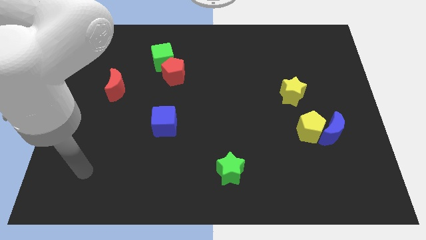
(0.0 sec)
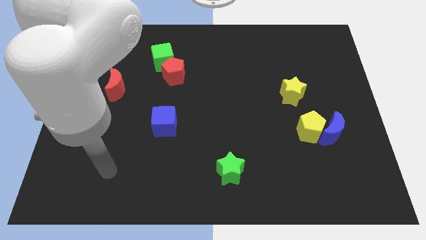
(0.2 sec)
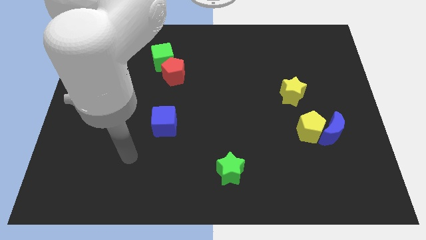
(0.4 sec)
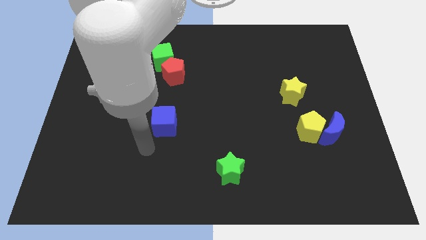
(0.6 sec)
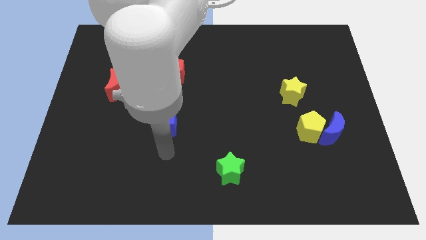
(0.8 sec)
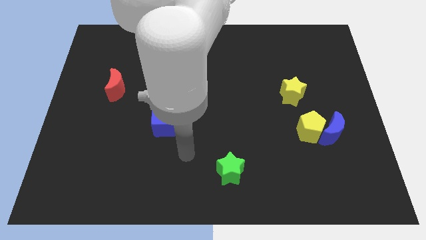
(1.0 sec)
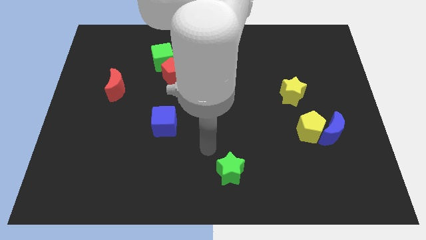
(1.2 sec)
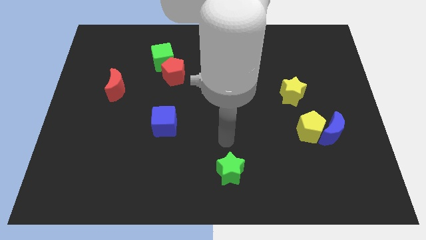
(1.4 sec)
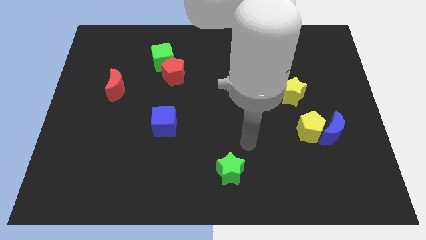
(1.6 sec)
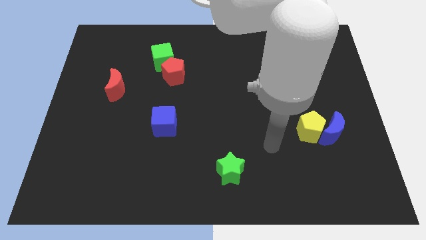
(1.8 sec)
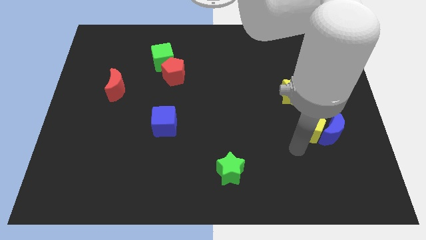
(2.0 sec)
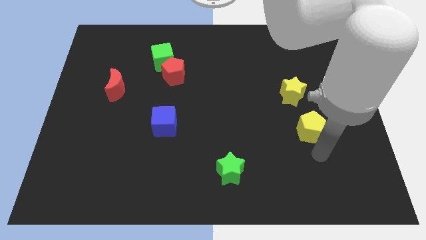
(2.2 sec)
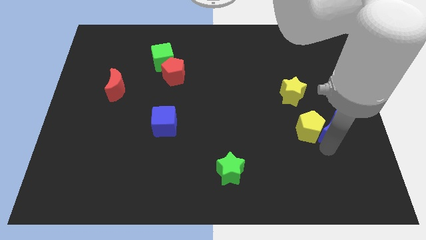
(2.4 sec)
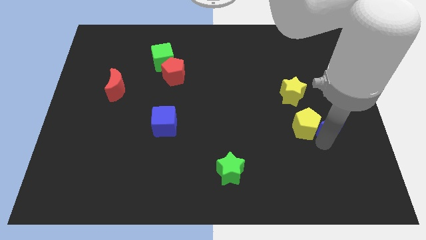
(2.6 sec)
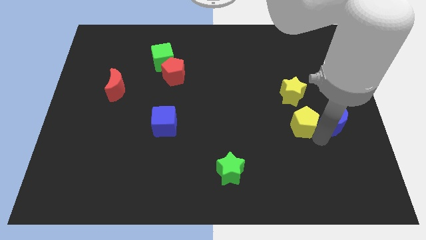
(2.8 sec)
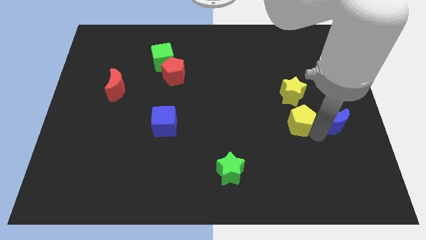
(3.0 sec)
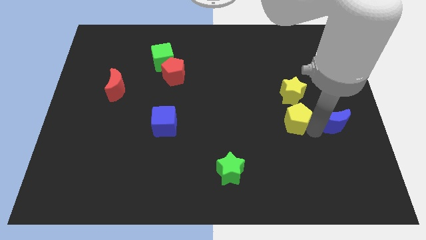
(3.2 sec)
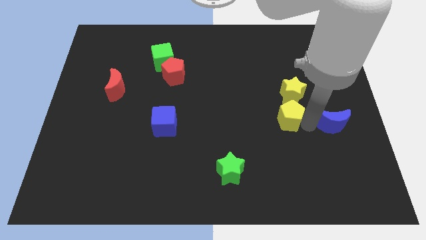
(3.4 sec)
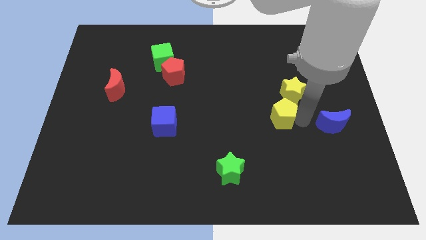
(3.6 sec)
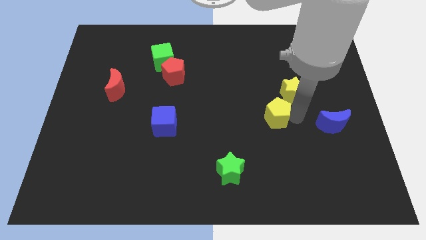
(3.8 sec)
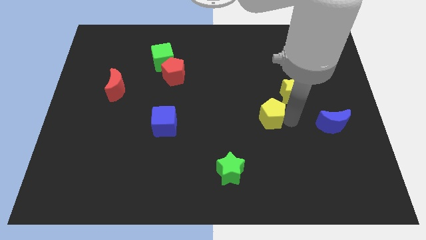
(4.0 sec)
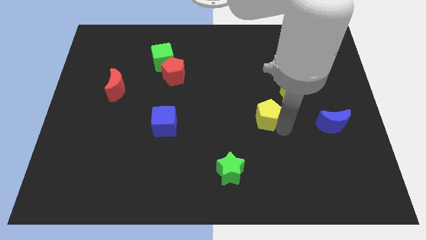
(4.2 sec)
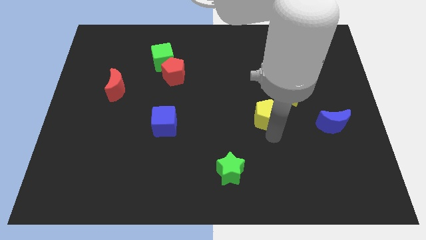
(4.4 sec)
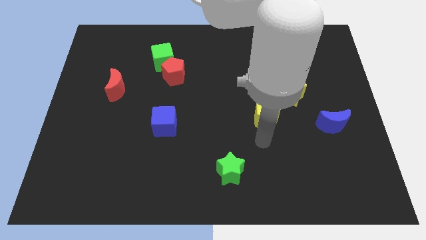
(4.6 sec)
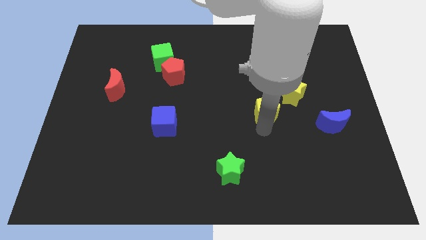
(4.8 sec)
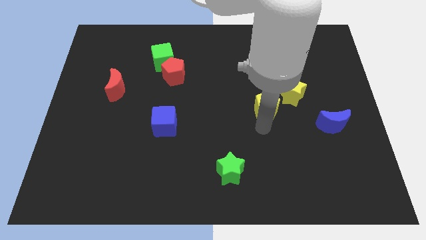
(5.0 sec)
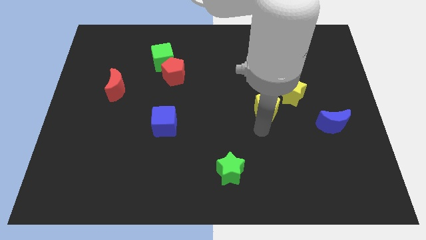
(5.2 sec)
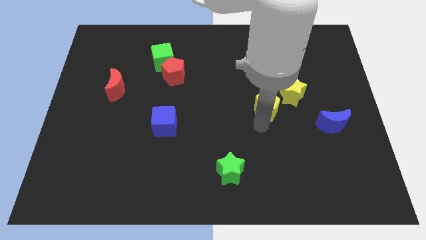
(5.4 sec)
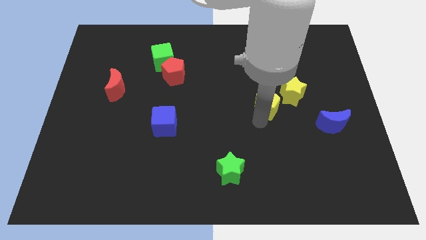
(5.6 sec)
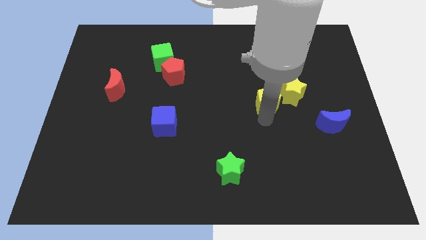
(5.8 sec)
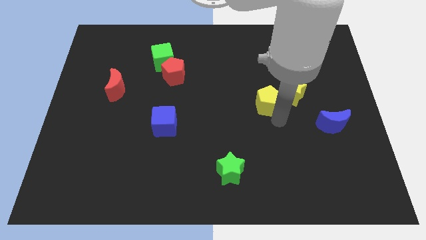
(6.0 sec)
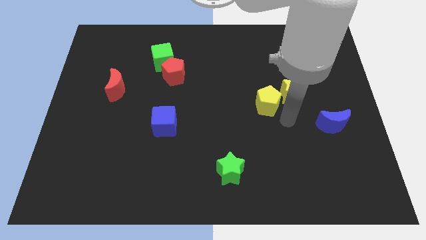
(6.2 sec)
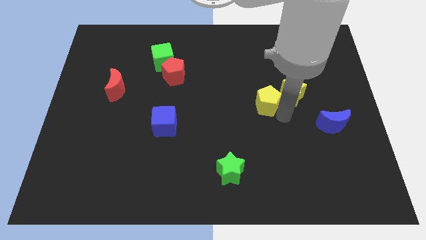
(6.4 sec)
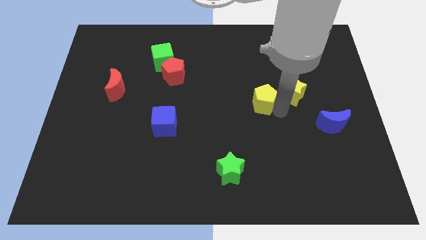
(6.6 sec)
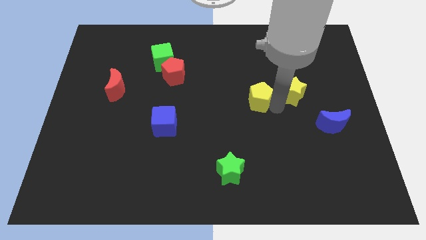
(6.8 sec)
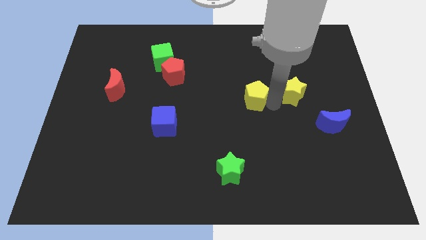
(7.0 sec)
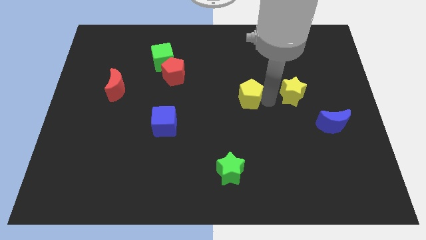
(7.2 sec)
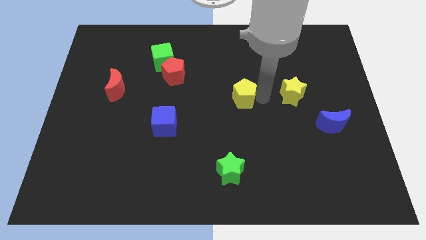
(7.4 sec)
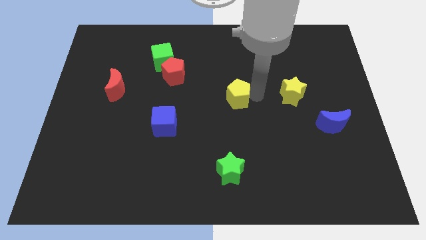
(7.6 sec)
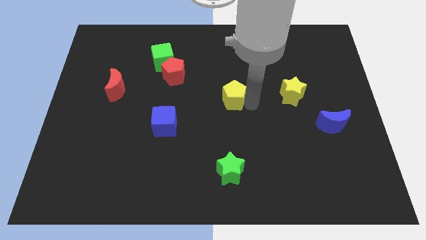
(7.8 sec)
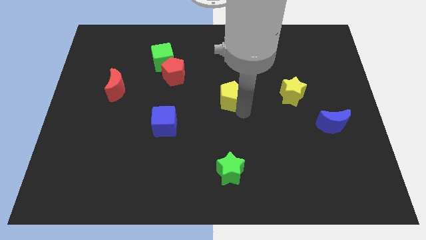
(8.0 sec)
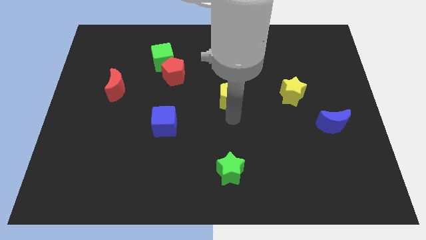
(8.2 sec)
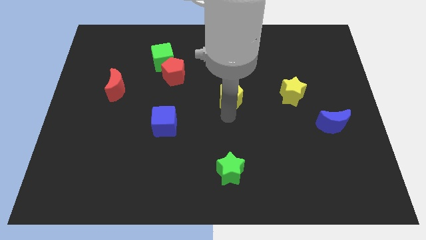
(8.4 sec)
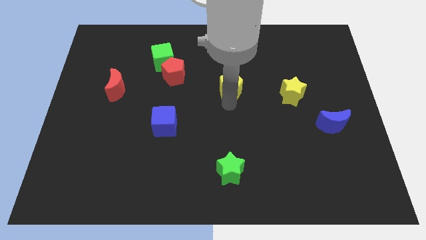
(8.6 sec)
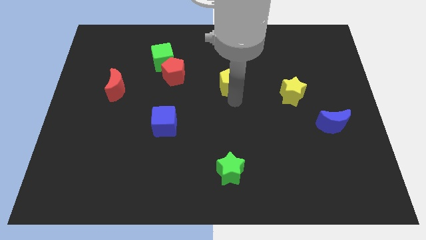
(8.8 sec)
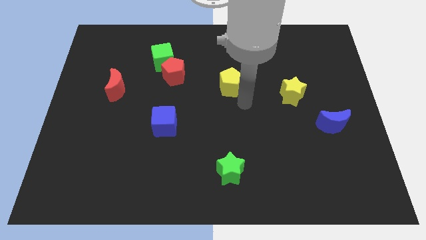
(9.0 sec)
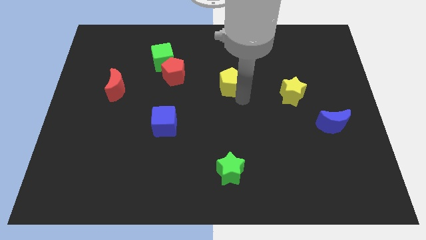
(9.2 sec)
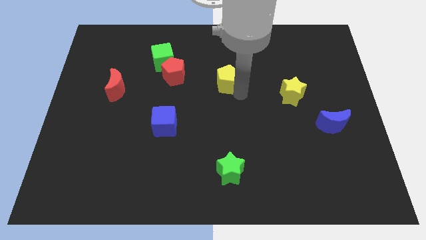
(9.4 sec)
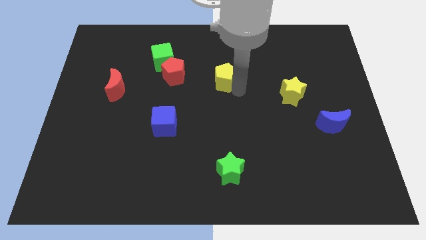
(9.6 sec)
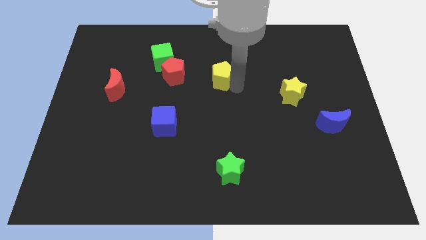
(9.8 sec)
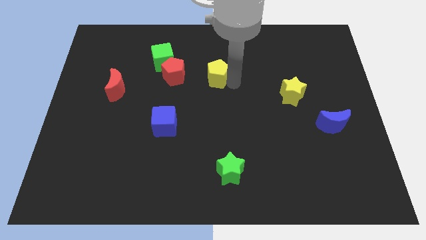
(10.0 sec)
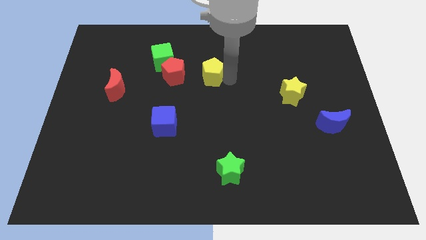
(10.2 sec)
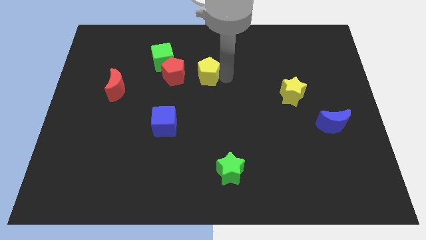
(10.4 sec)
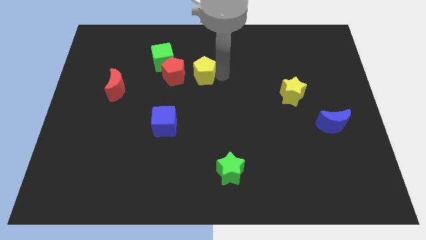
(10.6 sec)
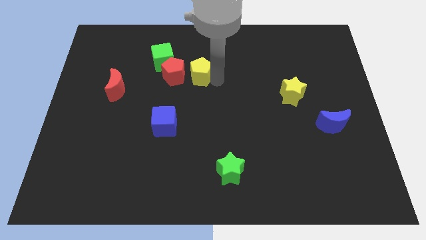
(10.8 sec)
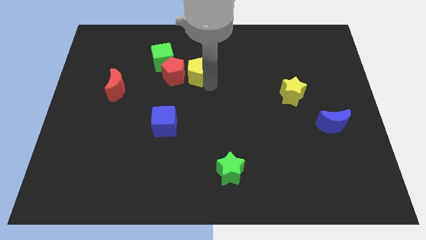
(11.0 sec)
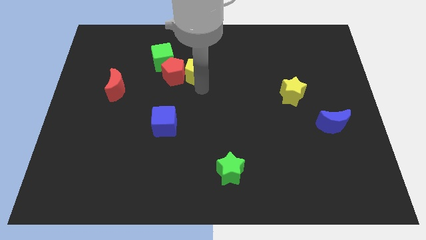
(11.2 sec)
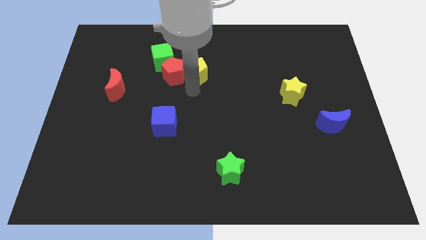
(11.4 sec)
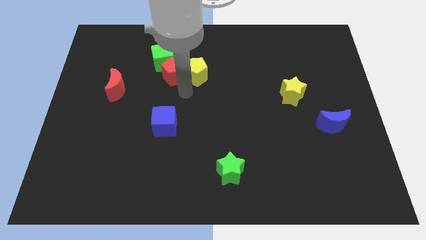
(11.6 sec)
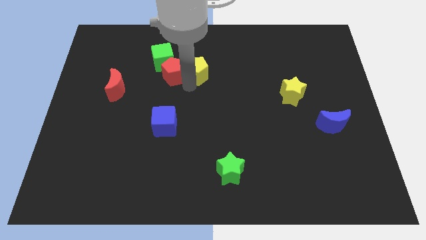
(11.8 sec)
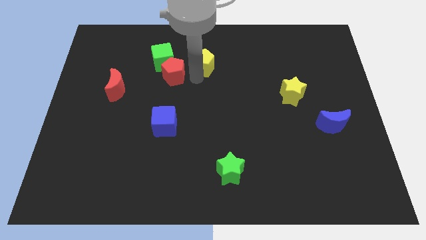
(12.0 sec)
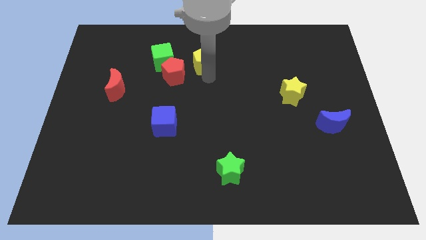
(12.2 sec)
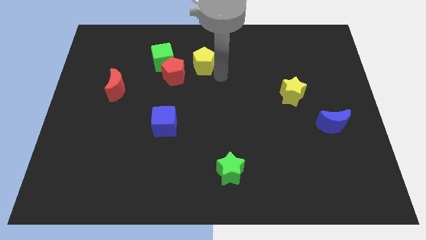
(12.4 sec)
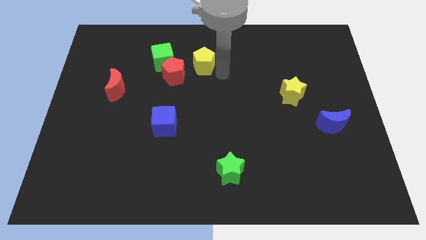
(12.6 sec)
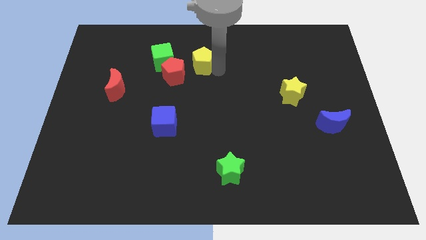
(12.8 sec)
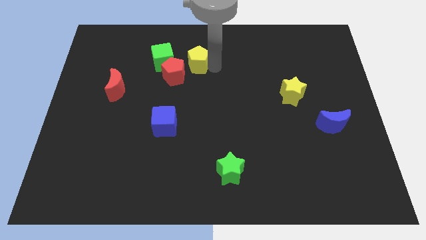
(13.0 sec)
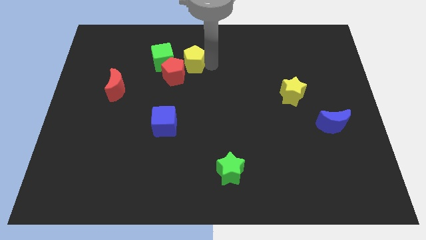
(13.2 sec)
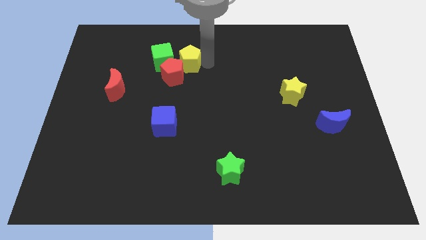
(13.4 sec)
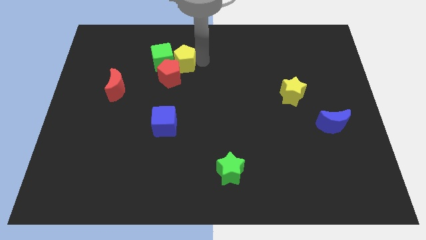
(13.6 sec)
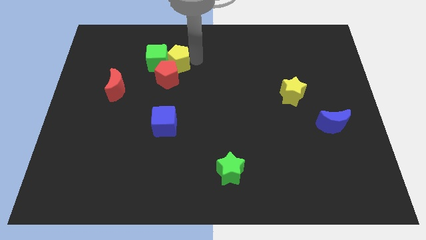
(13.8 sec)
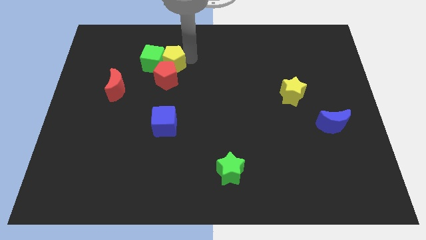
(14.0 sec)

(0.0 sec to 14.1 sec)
move the yellow pentagon to the top left of the red pentagon
